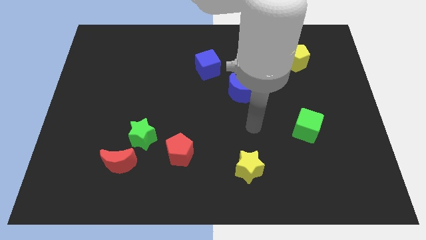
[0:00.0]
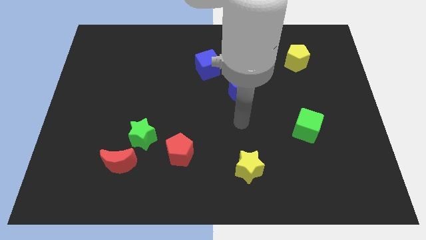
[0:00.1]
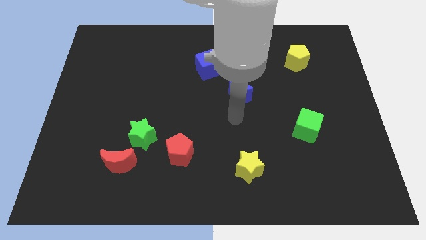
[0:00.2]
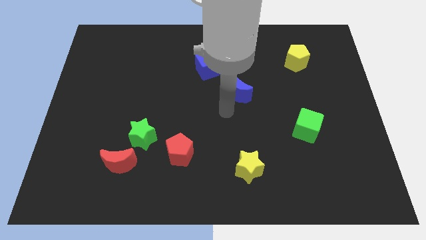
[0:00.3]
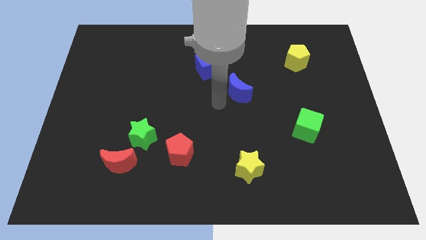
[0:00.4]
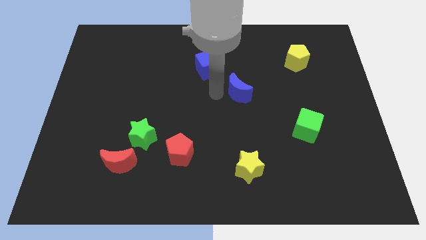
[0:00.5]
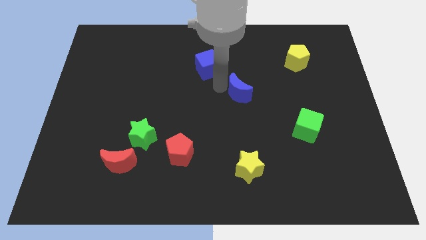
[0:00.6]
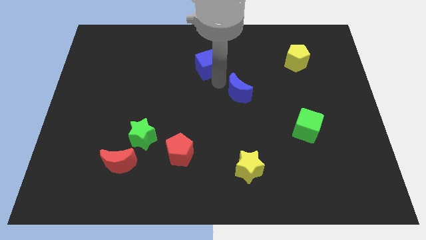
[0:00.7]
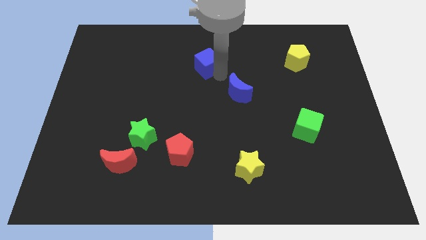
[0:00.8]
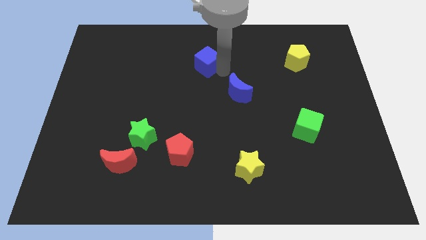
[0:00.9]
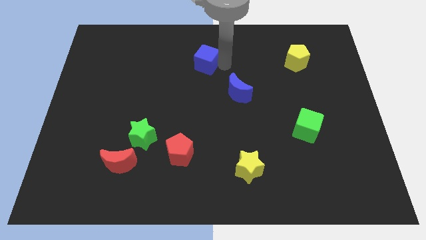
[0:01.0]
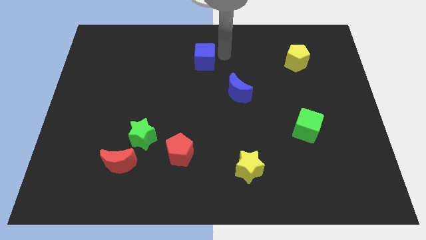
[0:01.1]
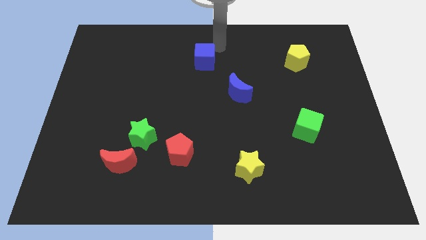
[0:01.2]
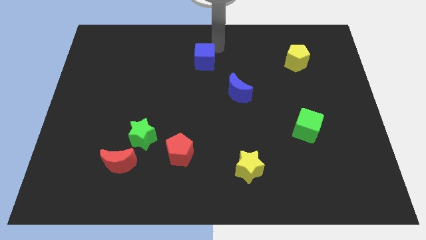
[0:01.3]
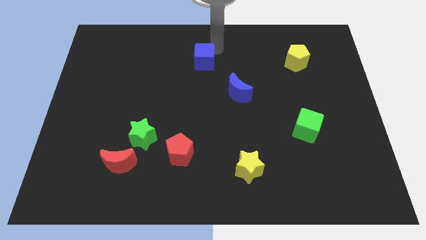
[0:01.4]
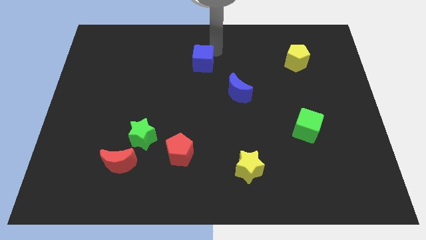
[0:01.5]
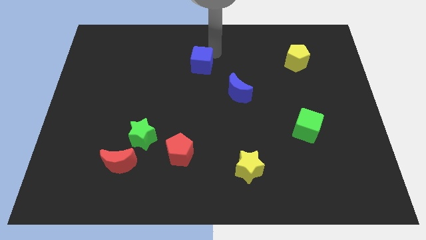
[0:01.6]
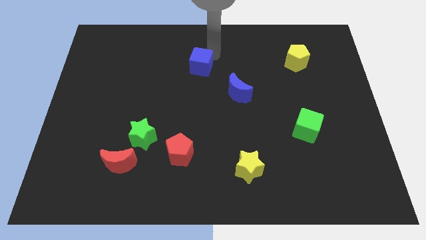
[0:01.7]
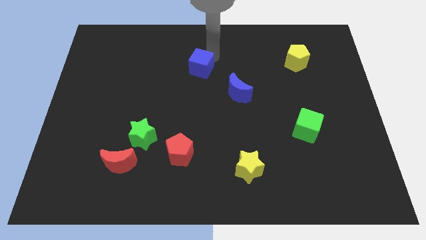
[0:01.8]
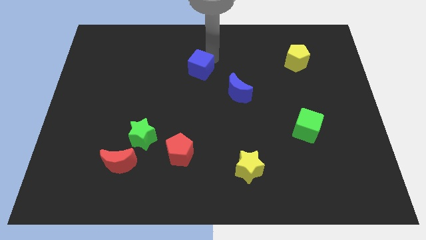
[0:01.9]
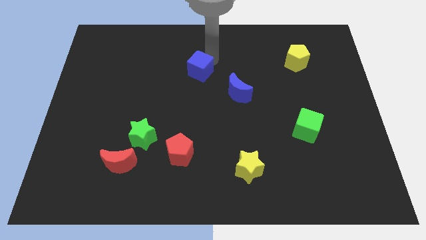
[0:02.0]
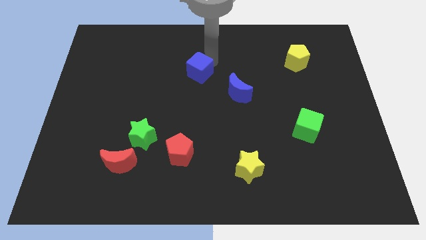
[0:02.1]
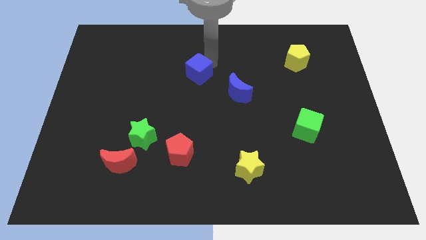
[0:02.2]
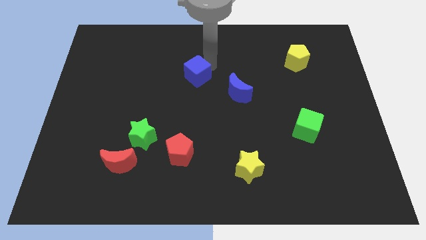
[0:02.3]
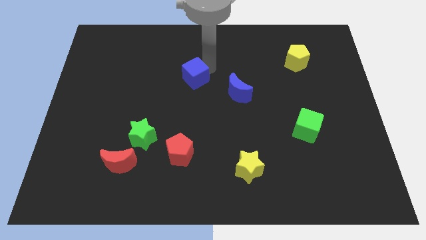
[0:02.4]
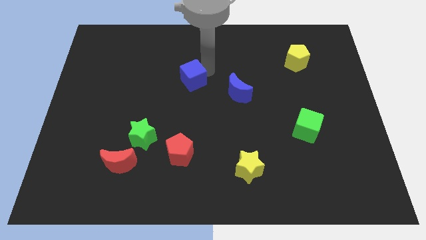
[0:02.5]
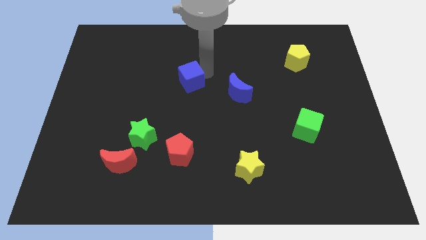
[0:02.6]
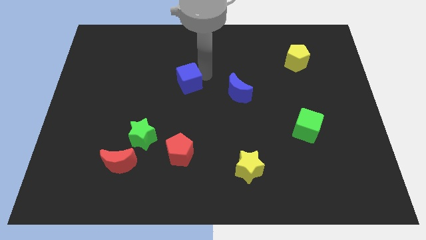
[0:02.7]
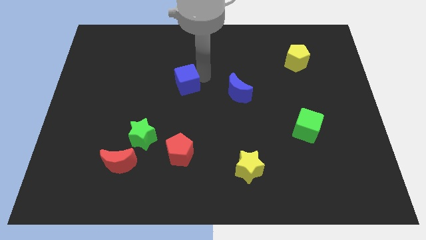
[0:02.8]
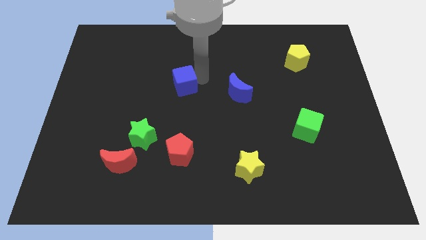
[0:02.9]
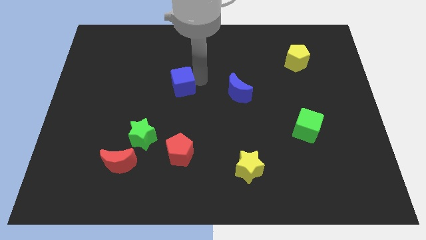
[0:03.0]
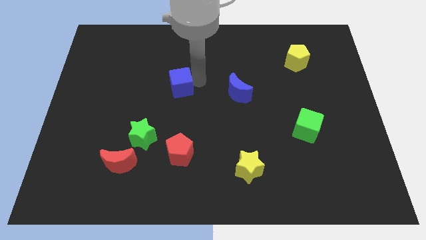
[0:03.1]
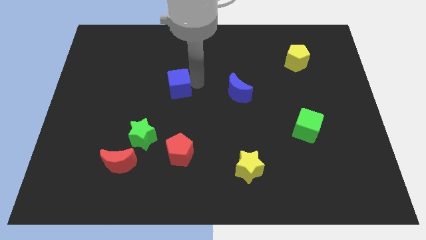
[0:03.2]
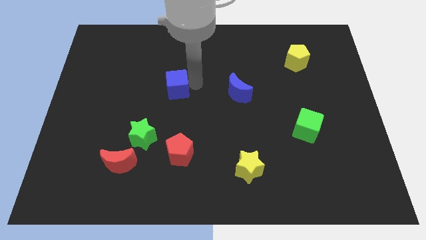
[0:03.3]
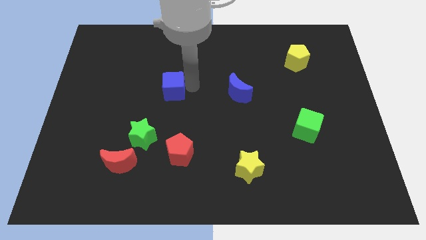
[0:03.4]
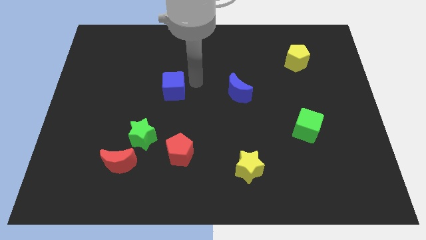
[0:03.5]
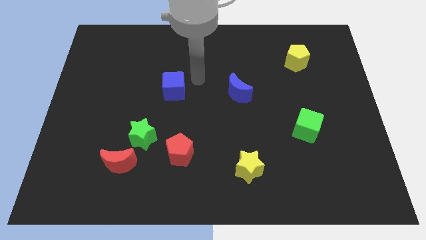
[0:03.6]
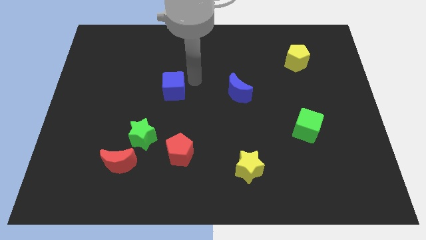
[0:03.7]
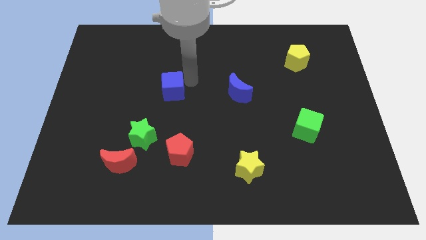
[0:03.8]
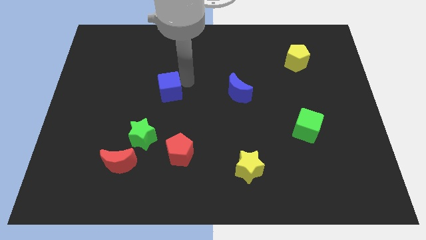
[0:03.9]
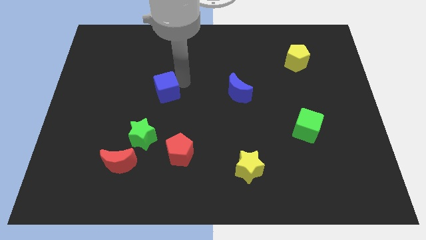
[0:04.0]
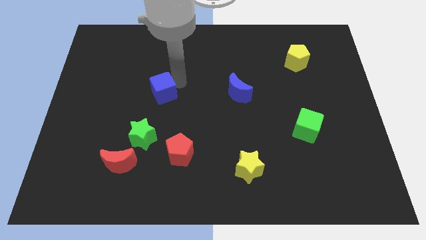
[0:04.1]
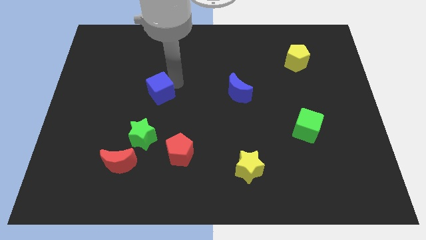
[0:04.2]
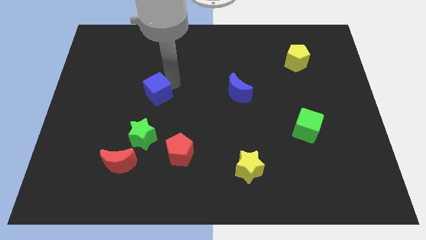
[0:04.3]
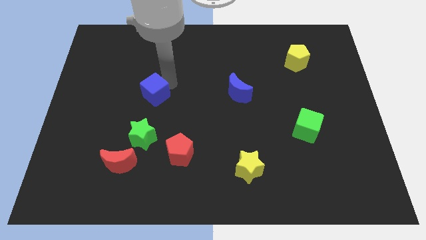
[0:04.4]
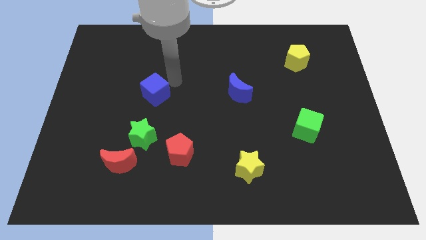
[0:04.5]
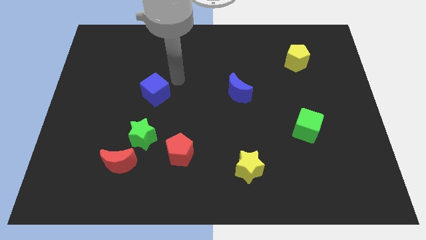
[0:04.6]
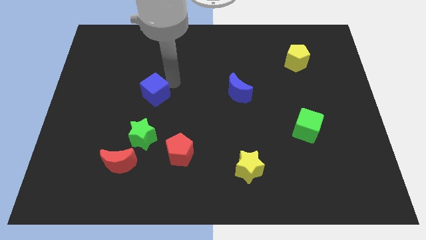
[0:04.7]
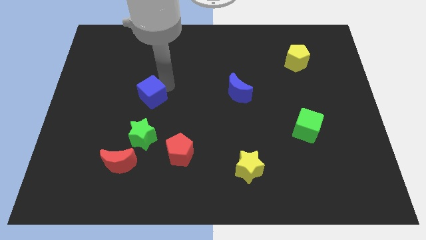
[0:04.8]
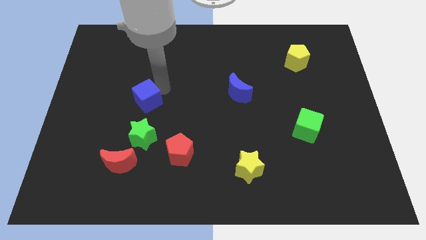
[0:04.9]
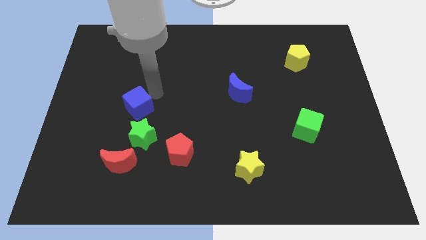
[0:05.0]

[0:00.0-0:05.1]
slide the blue cube downwards and left

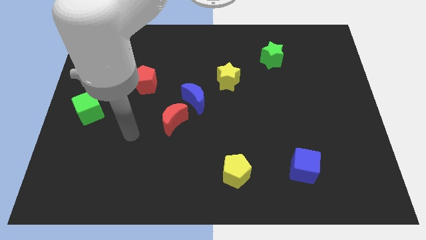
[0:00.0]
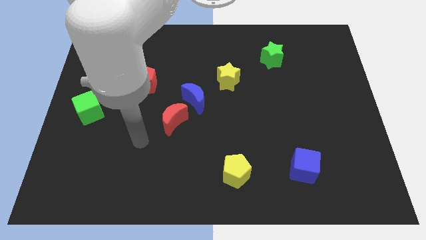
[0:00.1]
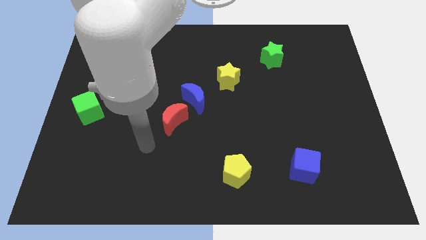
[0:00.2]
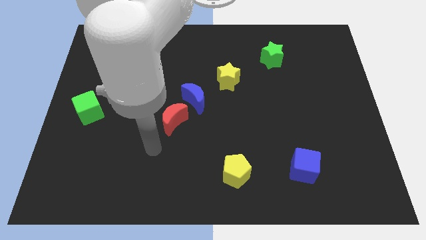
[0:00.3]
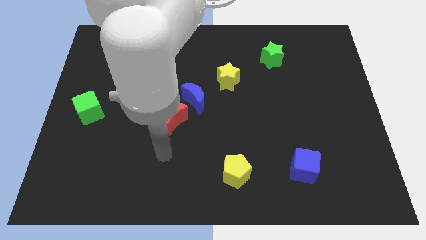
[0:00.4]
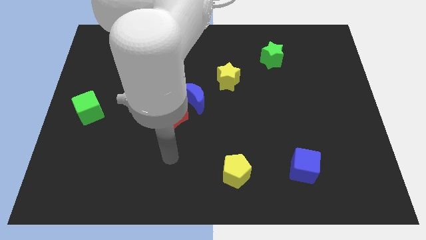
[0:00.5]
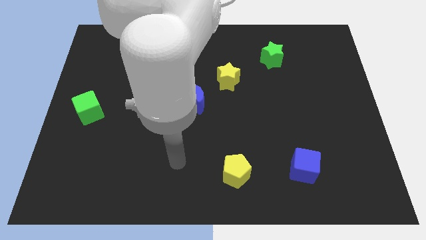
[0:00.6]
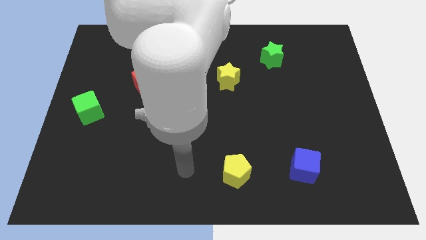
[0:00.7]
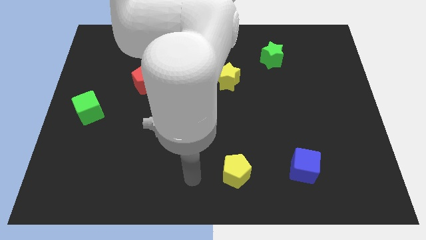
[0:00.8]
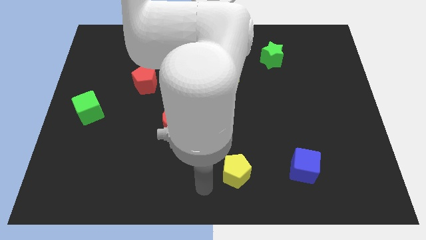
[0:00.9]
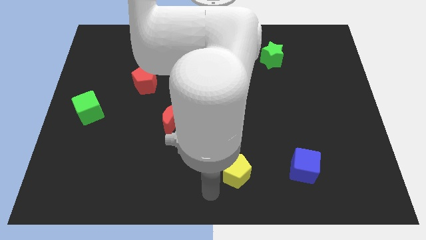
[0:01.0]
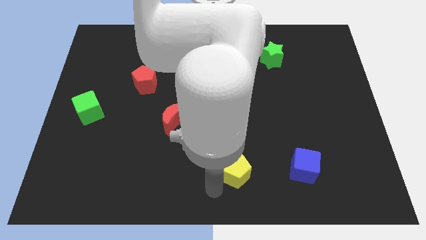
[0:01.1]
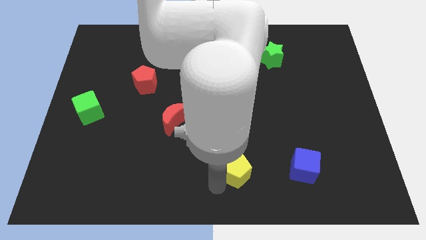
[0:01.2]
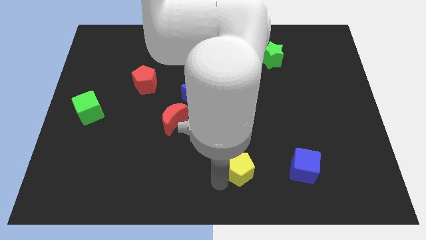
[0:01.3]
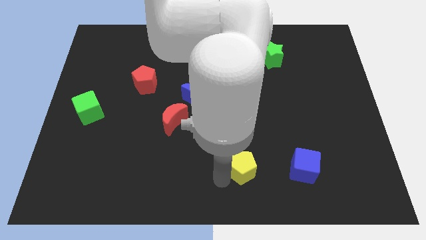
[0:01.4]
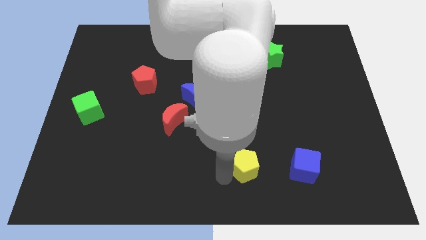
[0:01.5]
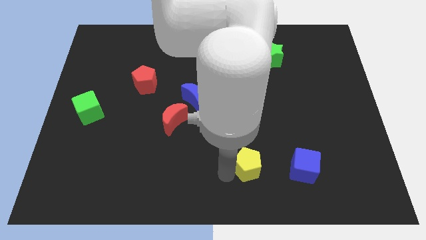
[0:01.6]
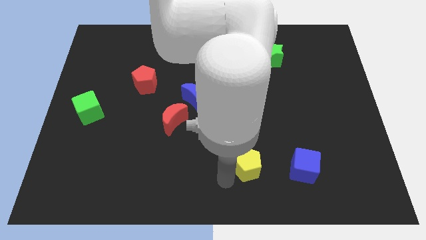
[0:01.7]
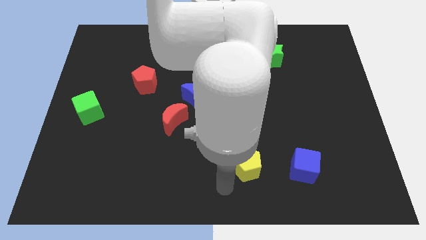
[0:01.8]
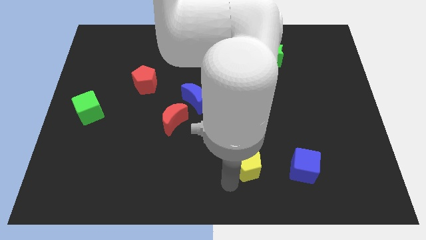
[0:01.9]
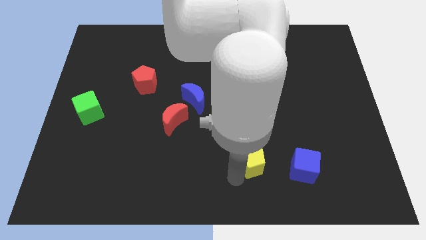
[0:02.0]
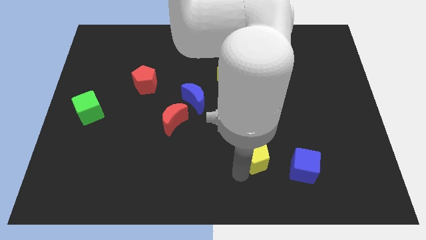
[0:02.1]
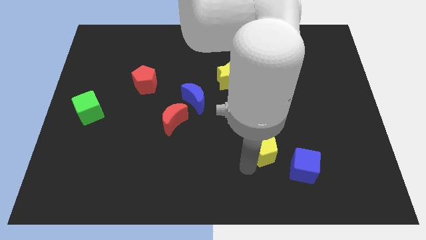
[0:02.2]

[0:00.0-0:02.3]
slide the yellow pentagon upwards and then to the right a bit

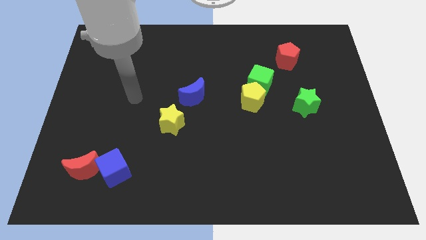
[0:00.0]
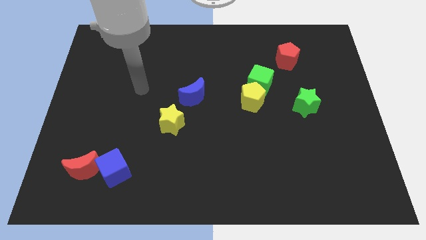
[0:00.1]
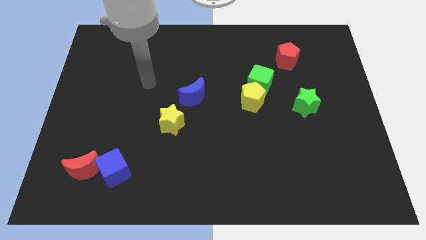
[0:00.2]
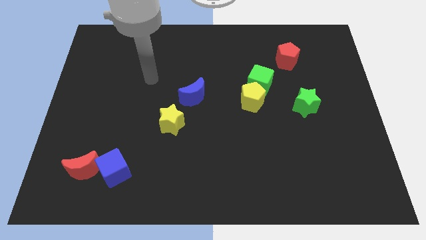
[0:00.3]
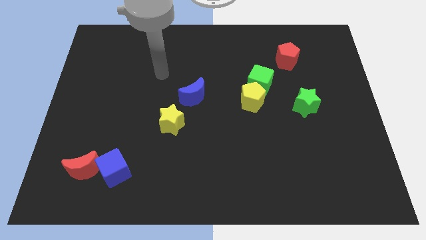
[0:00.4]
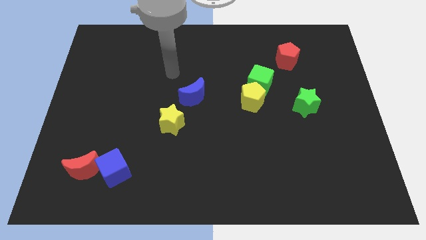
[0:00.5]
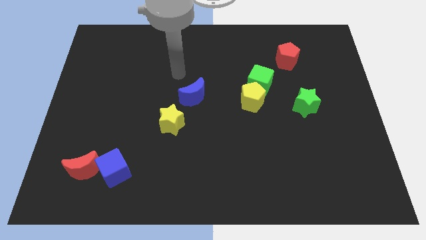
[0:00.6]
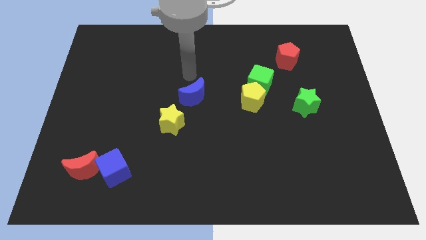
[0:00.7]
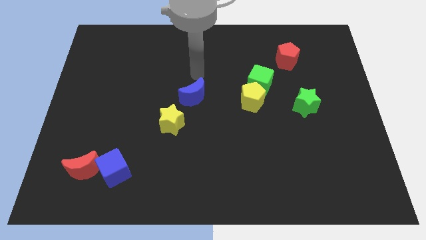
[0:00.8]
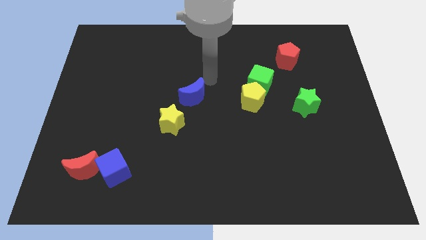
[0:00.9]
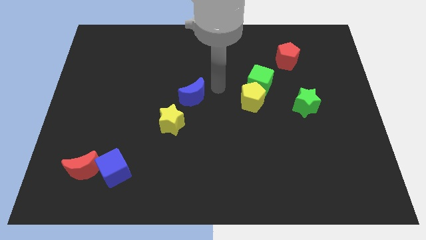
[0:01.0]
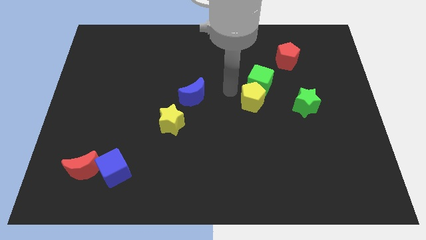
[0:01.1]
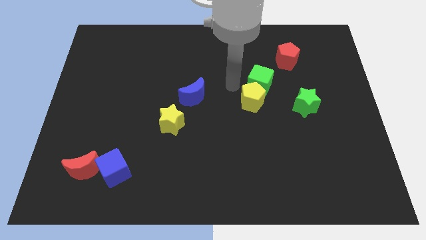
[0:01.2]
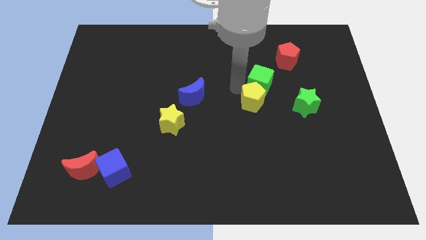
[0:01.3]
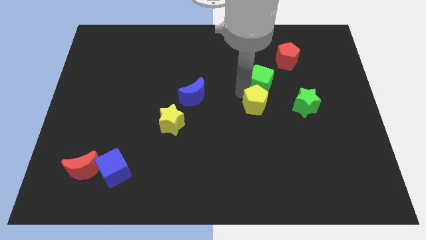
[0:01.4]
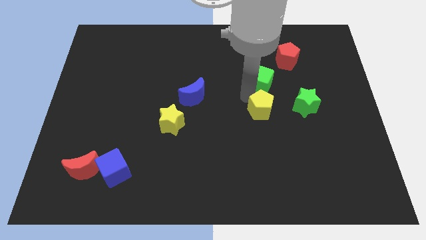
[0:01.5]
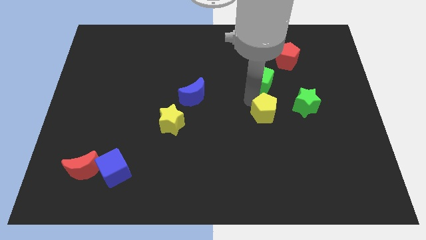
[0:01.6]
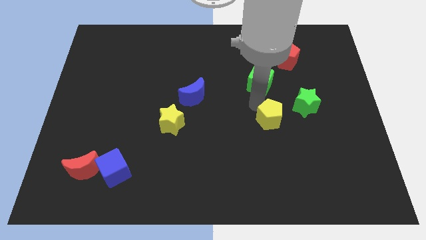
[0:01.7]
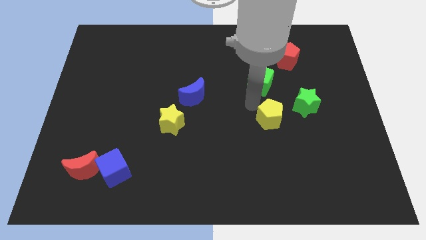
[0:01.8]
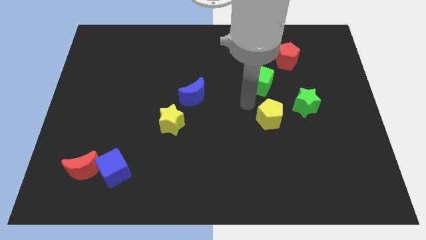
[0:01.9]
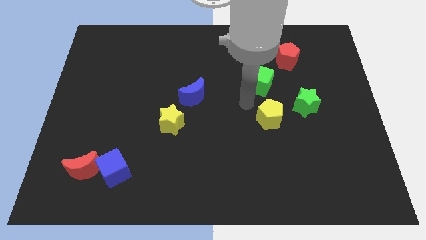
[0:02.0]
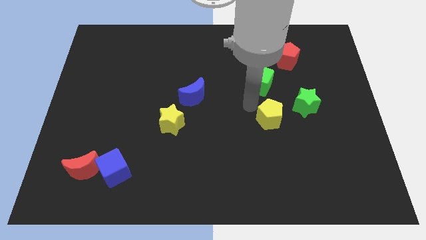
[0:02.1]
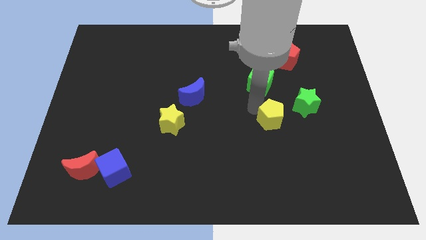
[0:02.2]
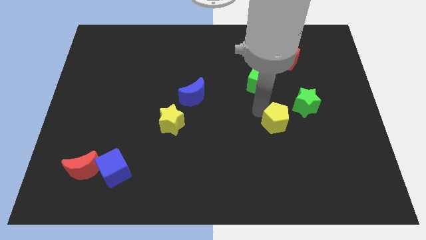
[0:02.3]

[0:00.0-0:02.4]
push the yellow pentagon down and then right a bit
